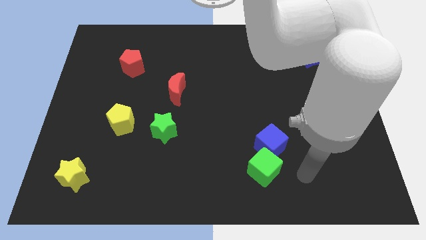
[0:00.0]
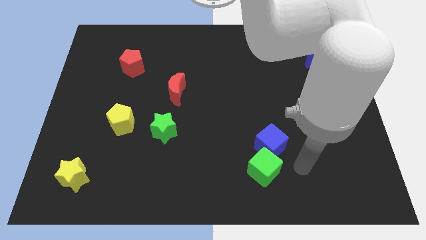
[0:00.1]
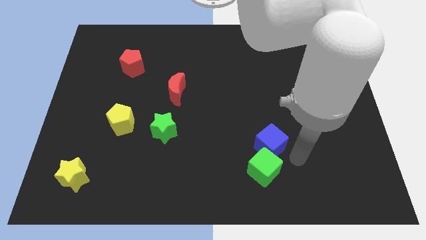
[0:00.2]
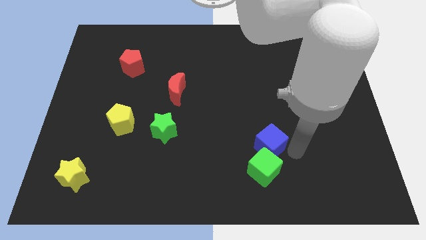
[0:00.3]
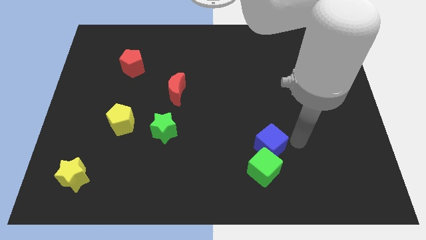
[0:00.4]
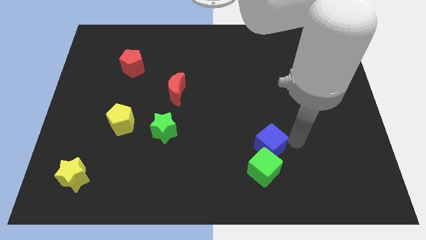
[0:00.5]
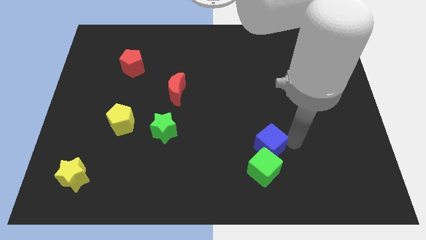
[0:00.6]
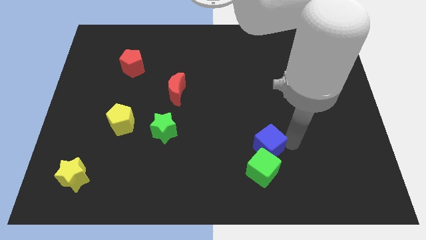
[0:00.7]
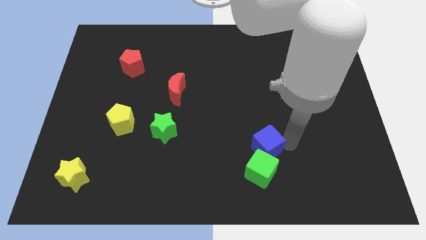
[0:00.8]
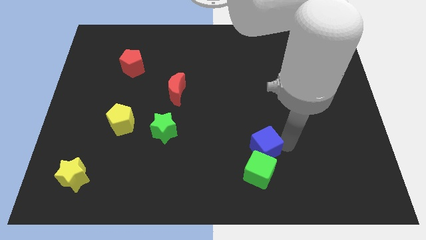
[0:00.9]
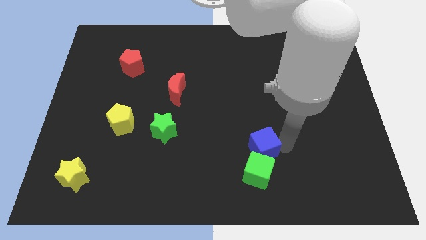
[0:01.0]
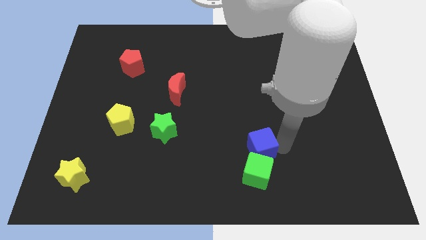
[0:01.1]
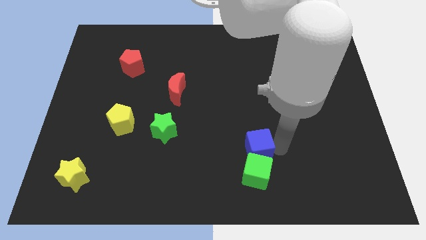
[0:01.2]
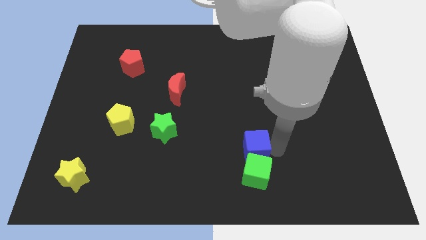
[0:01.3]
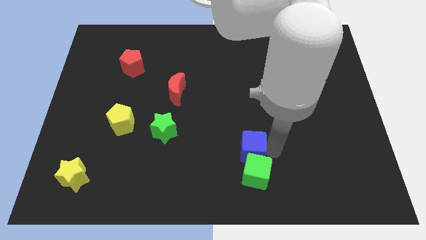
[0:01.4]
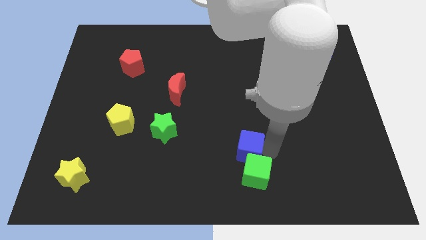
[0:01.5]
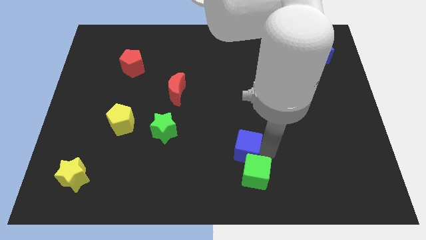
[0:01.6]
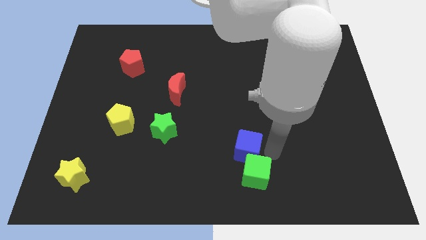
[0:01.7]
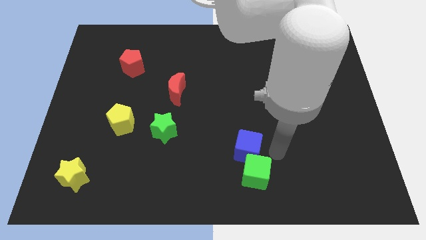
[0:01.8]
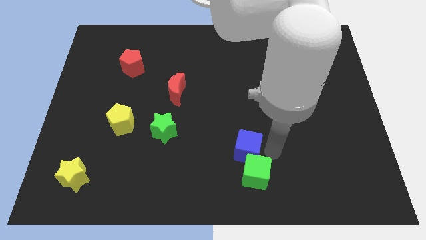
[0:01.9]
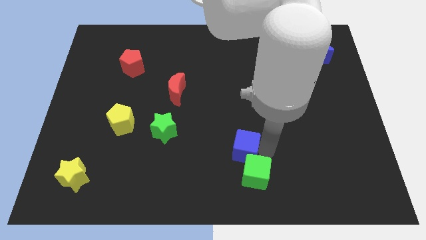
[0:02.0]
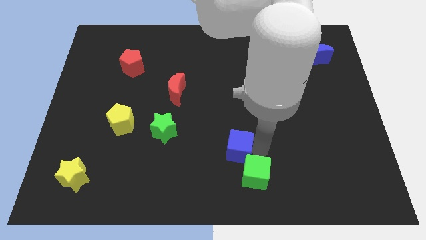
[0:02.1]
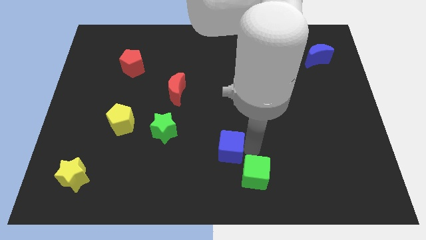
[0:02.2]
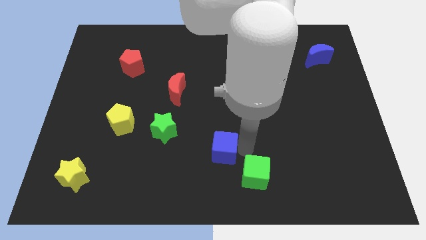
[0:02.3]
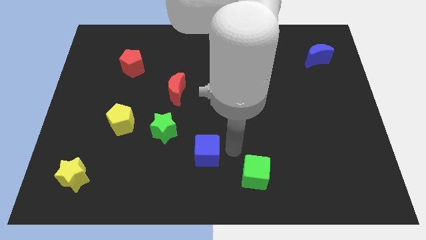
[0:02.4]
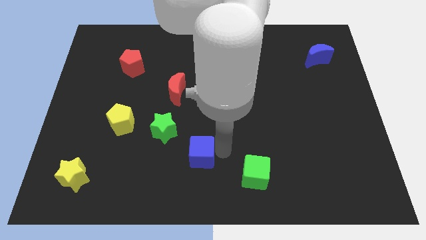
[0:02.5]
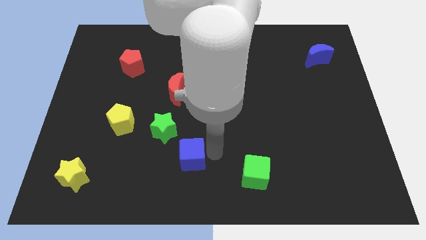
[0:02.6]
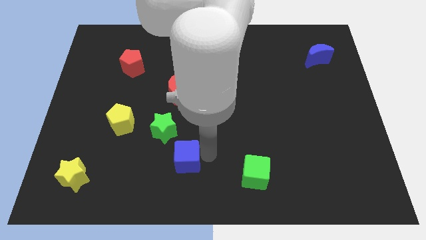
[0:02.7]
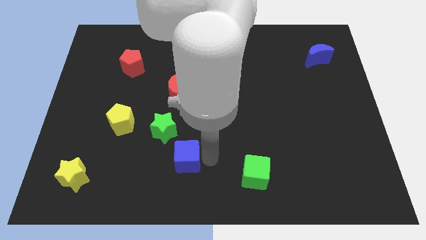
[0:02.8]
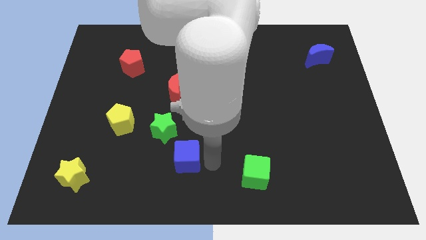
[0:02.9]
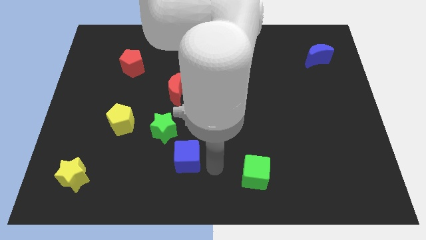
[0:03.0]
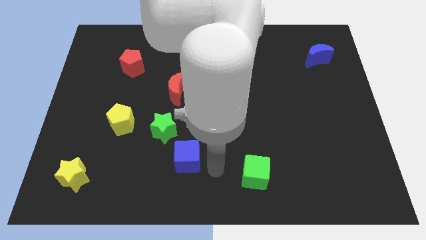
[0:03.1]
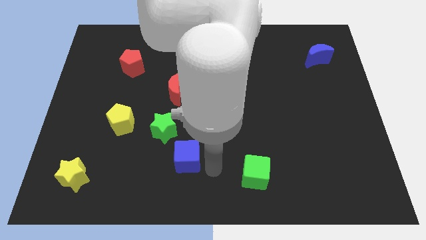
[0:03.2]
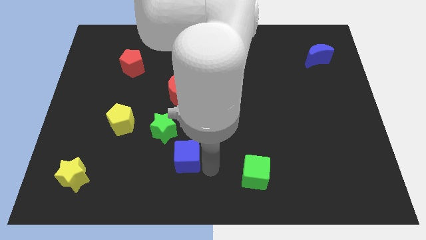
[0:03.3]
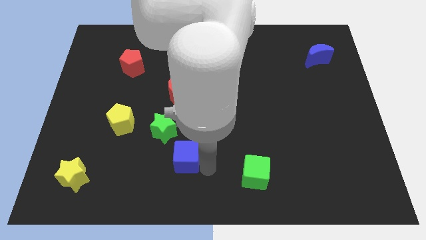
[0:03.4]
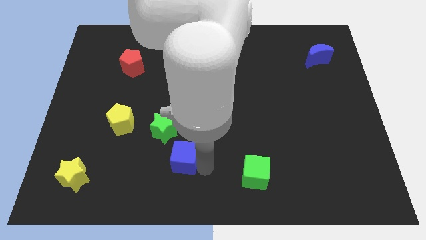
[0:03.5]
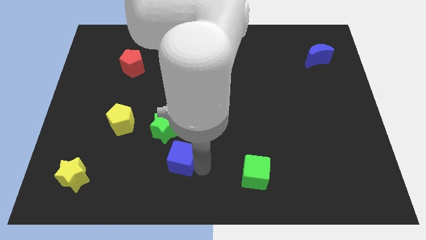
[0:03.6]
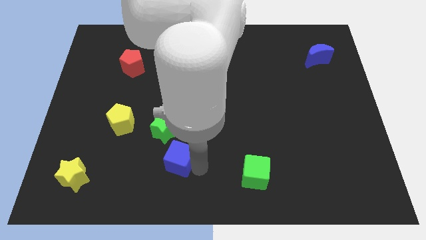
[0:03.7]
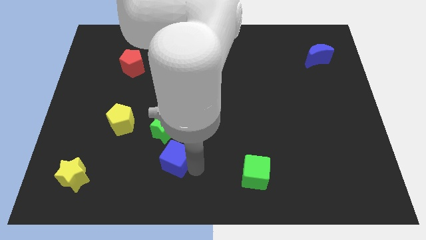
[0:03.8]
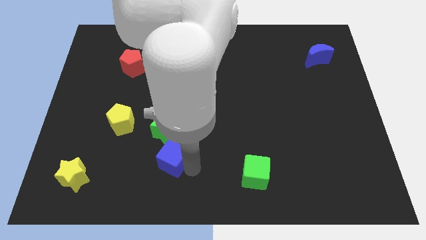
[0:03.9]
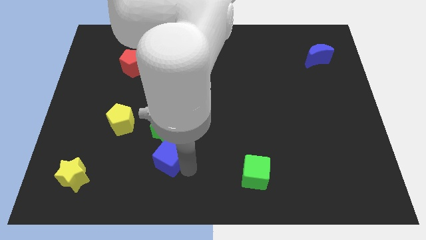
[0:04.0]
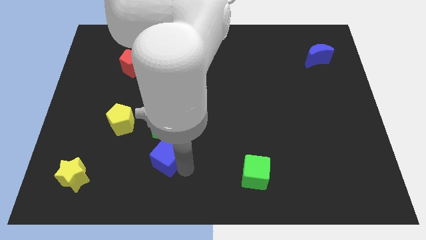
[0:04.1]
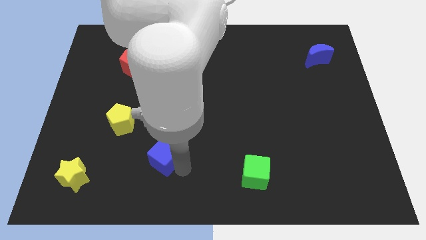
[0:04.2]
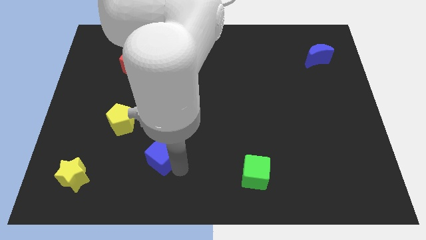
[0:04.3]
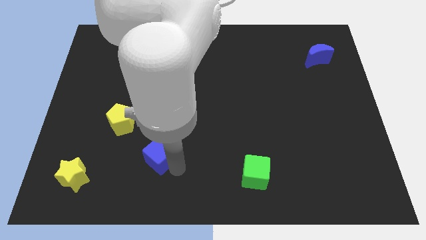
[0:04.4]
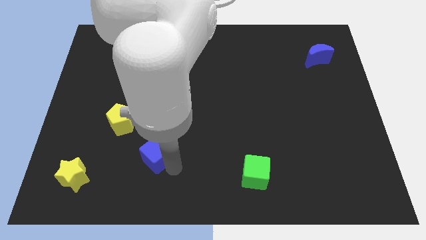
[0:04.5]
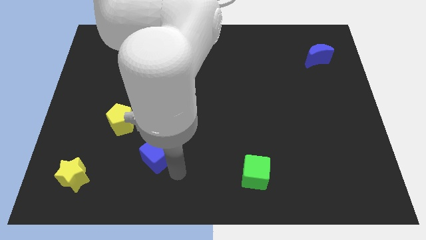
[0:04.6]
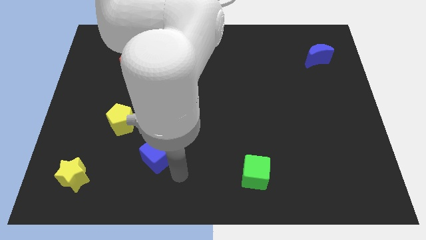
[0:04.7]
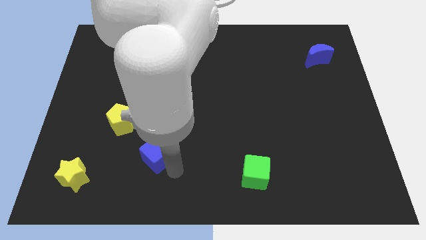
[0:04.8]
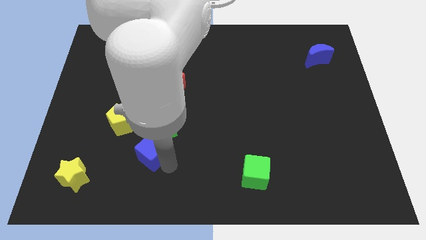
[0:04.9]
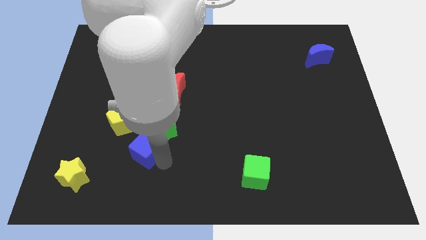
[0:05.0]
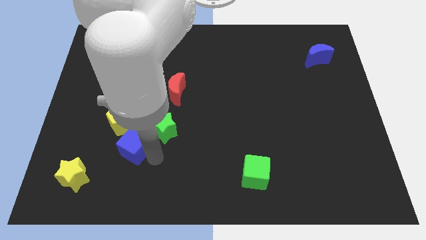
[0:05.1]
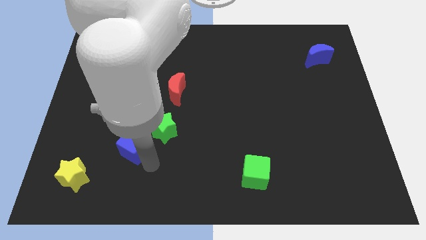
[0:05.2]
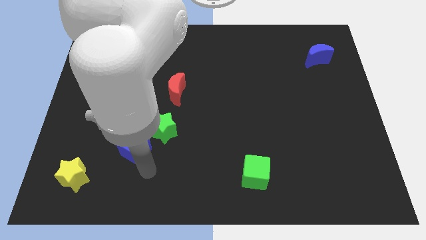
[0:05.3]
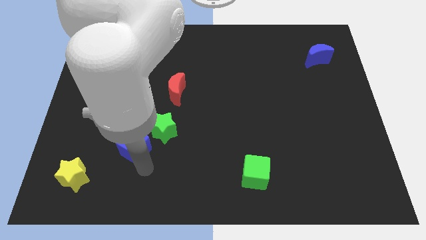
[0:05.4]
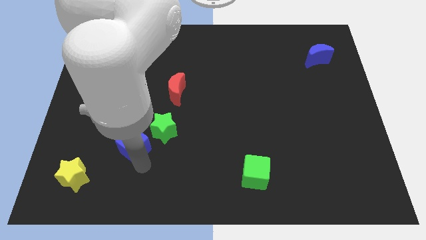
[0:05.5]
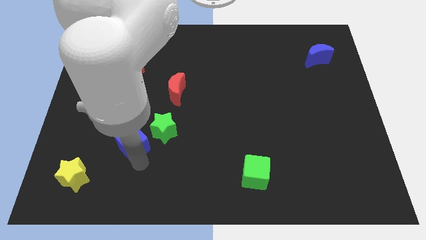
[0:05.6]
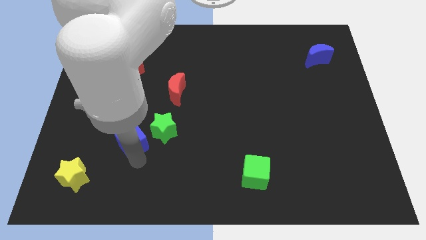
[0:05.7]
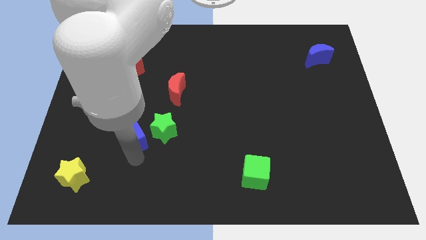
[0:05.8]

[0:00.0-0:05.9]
push the blue cube to the yellow pentagon

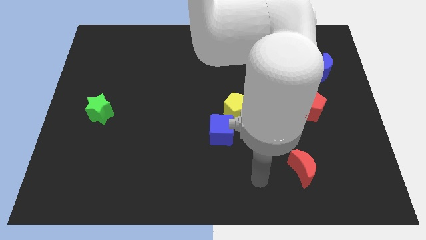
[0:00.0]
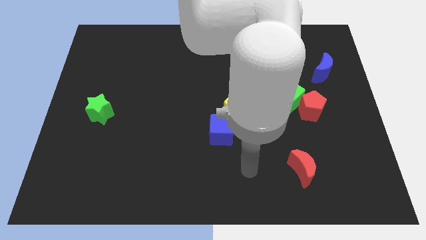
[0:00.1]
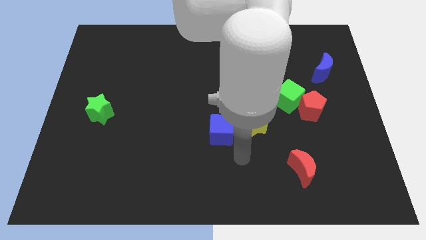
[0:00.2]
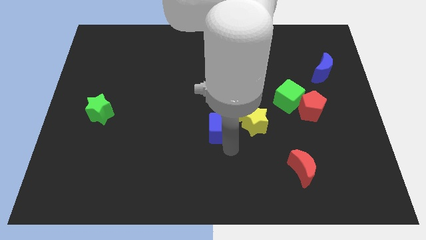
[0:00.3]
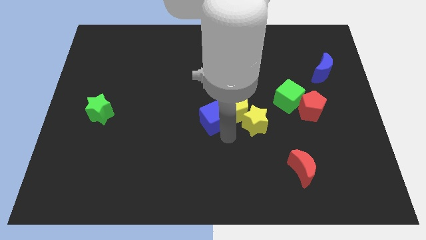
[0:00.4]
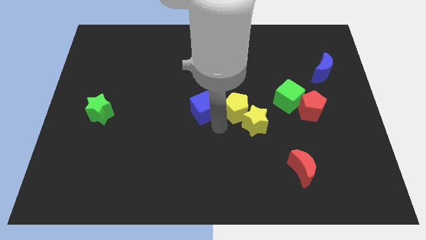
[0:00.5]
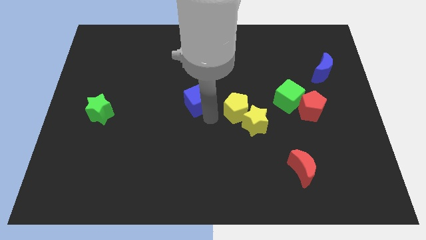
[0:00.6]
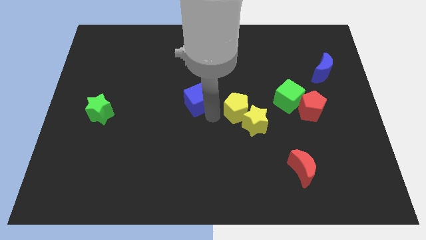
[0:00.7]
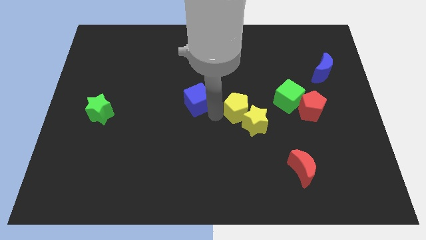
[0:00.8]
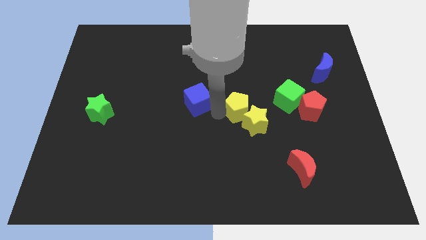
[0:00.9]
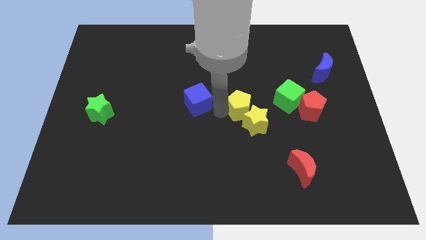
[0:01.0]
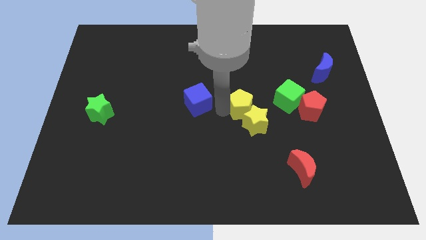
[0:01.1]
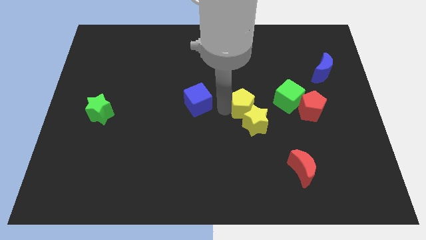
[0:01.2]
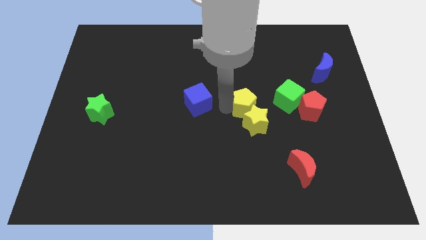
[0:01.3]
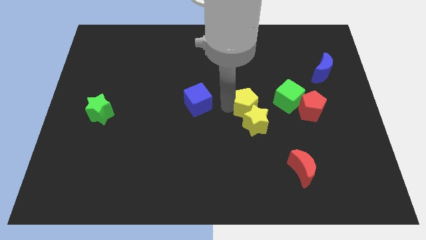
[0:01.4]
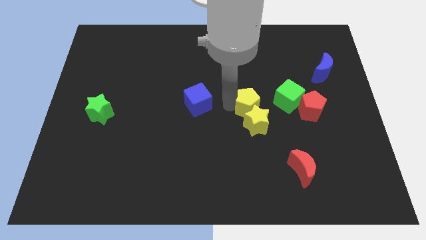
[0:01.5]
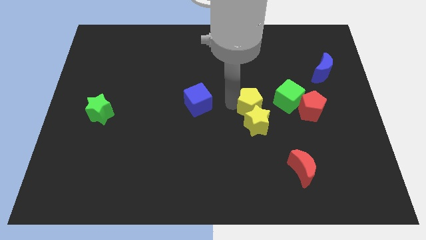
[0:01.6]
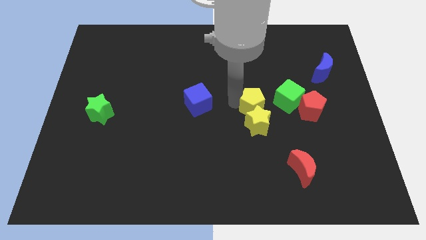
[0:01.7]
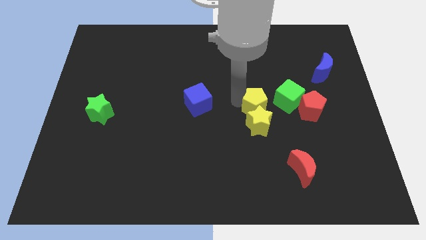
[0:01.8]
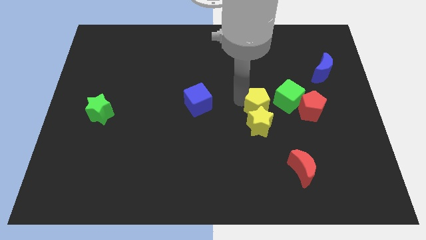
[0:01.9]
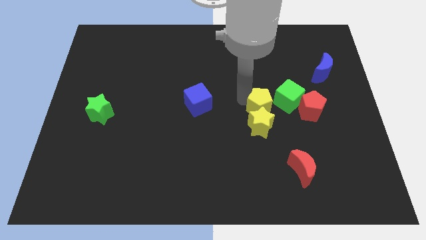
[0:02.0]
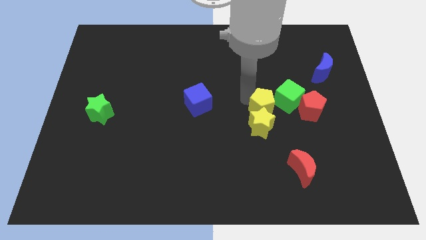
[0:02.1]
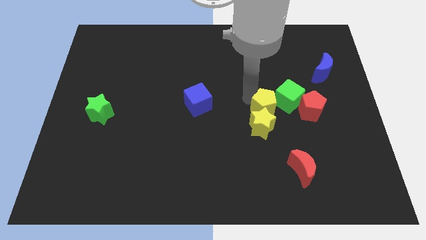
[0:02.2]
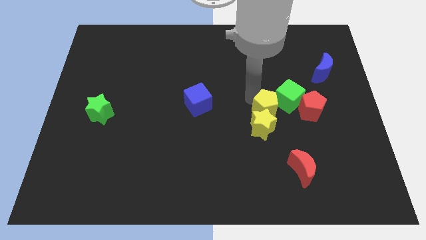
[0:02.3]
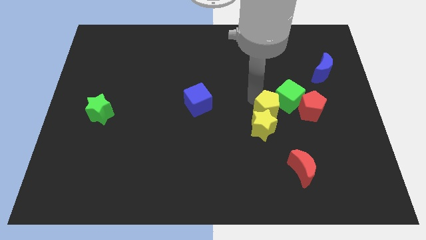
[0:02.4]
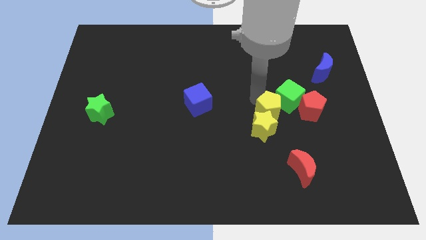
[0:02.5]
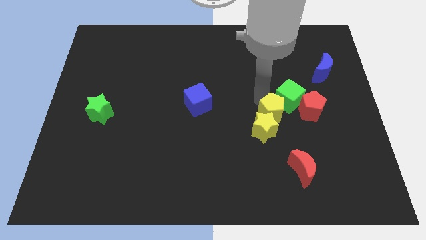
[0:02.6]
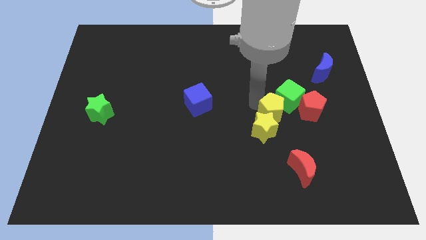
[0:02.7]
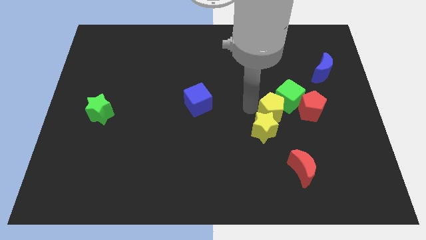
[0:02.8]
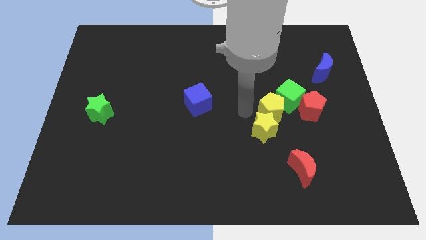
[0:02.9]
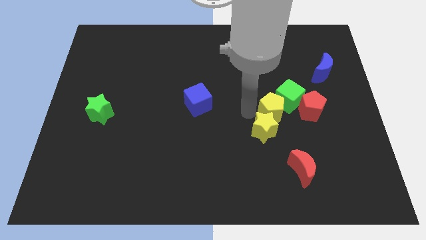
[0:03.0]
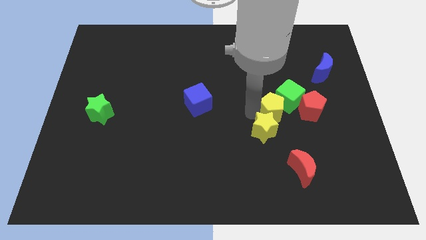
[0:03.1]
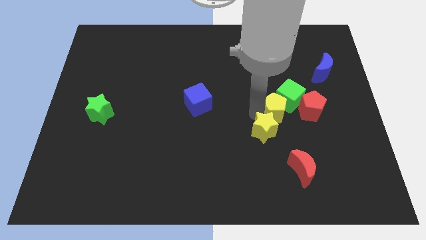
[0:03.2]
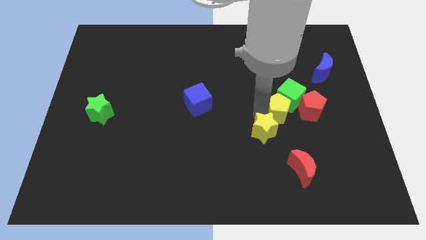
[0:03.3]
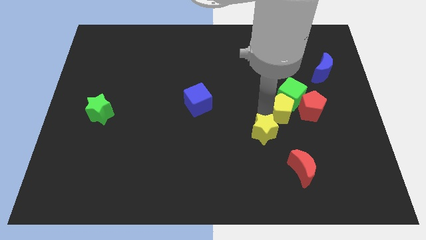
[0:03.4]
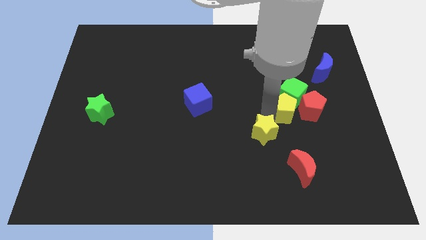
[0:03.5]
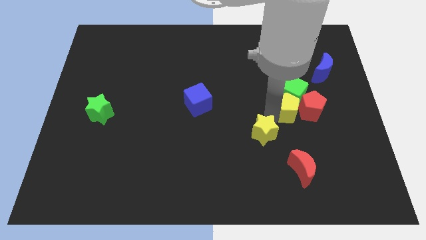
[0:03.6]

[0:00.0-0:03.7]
move the yellow pentagon close to the red pentagon
